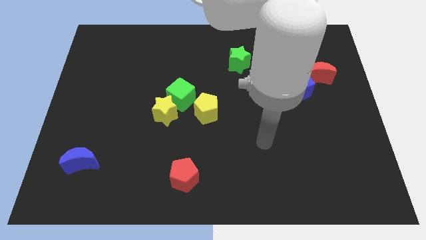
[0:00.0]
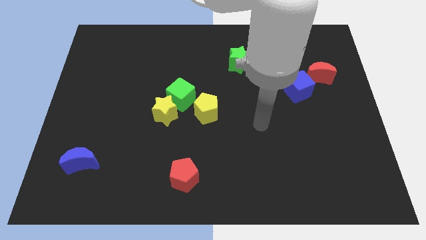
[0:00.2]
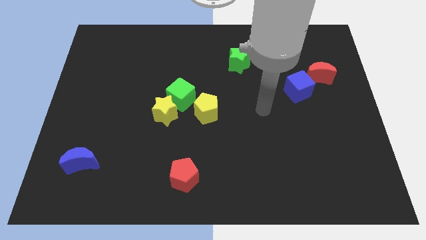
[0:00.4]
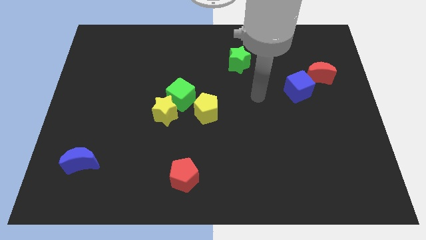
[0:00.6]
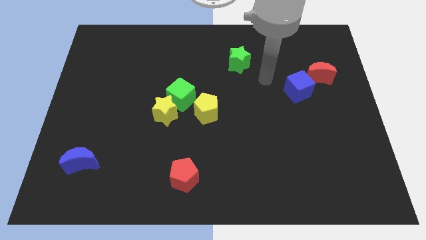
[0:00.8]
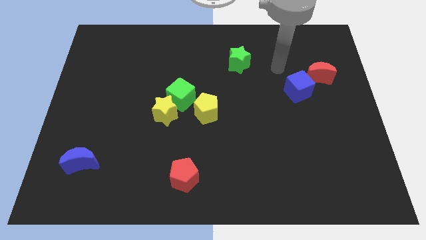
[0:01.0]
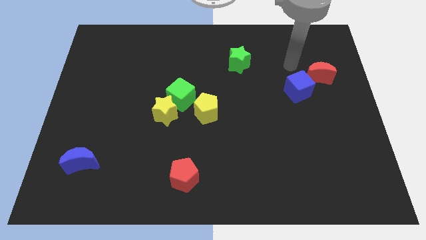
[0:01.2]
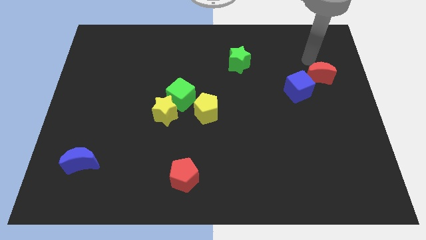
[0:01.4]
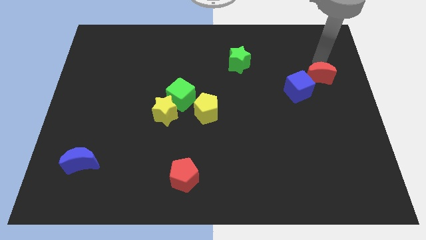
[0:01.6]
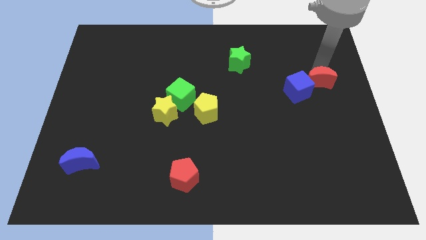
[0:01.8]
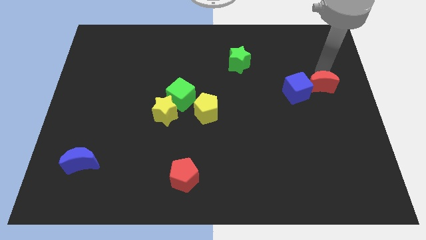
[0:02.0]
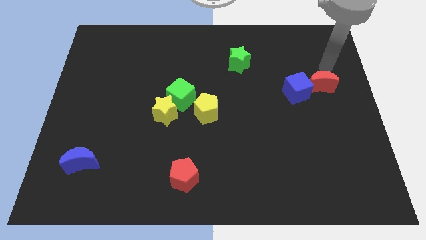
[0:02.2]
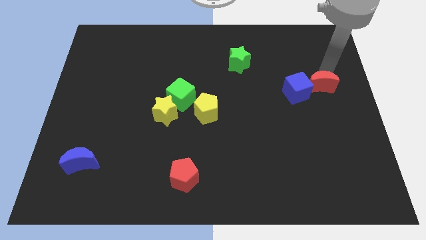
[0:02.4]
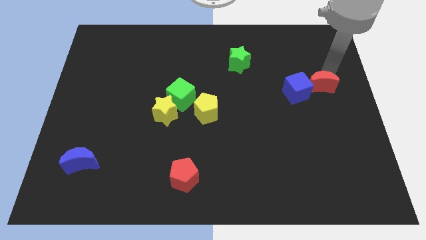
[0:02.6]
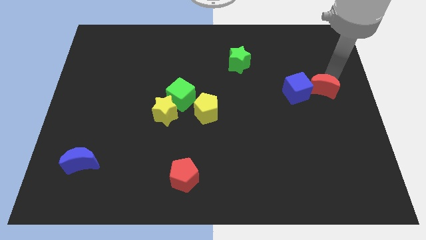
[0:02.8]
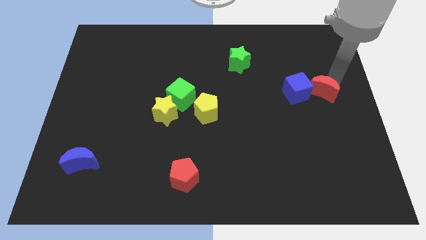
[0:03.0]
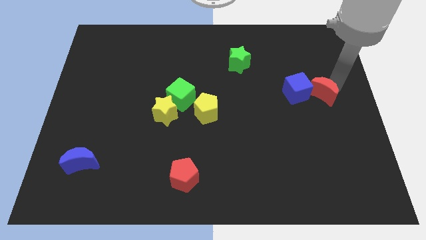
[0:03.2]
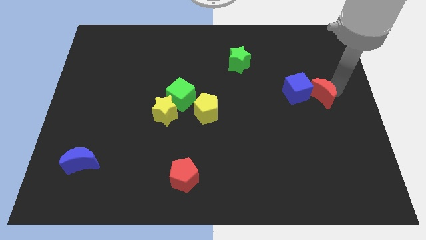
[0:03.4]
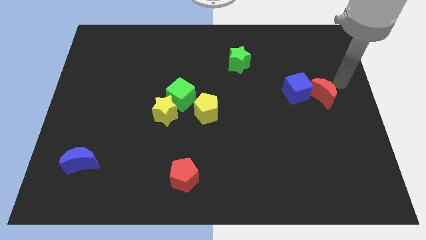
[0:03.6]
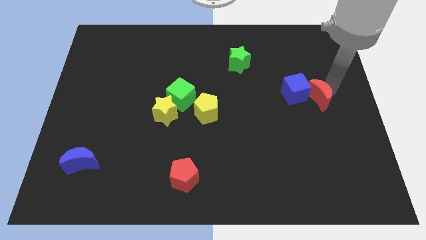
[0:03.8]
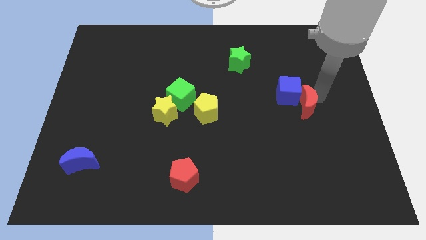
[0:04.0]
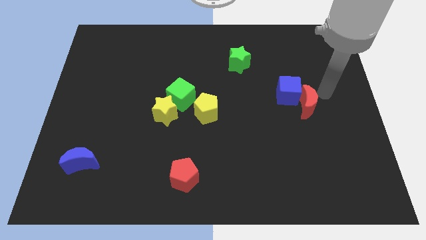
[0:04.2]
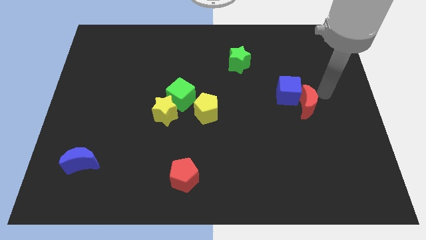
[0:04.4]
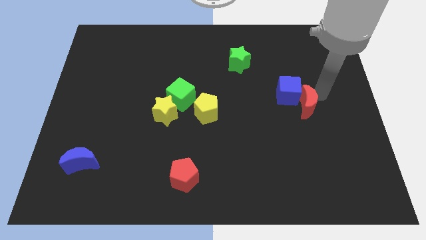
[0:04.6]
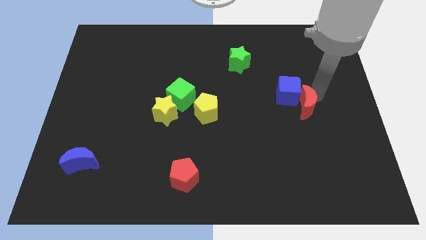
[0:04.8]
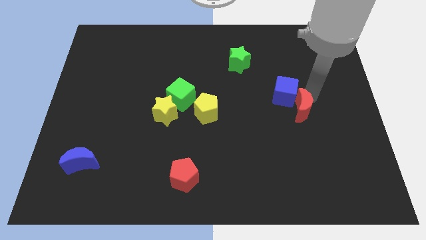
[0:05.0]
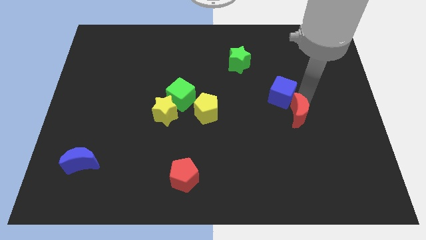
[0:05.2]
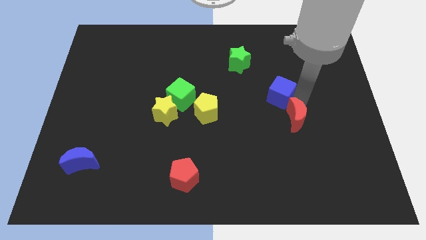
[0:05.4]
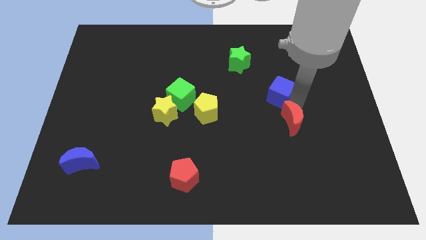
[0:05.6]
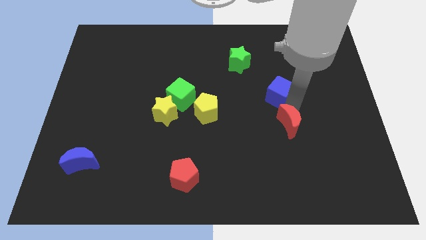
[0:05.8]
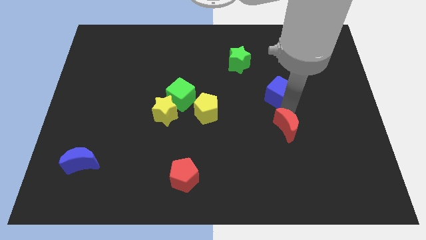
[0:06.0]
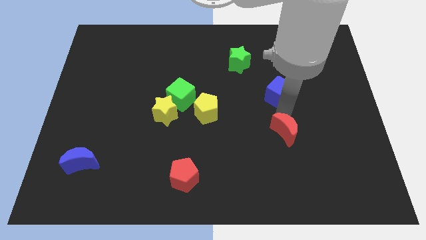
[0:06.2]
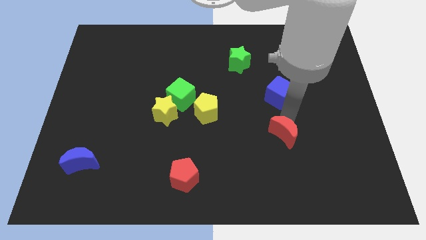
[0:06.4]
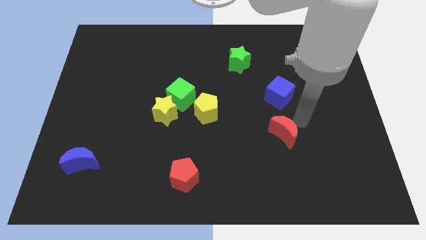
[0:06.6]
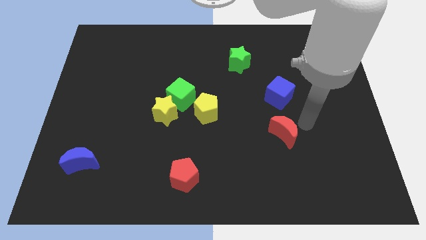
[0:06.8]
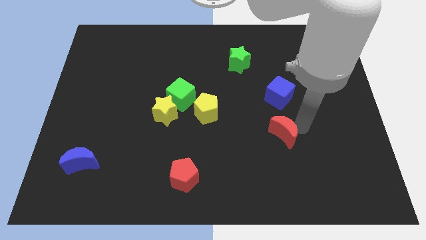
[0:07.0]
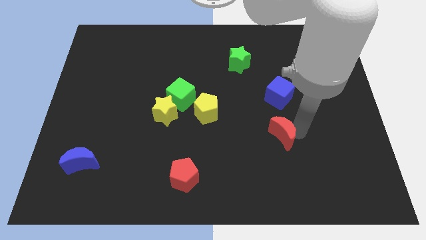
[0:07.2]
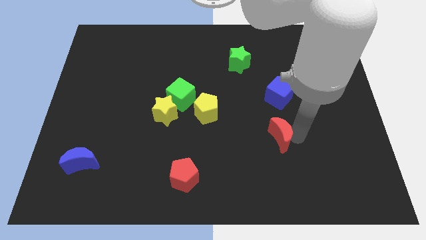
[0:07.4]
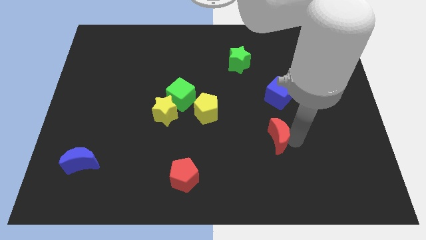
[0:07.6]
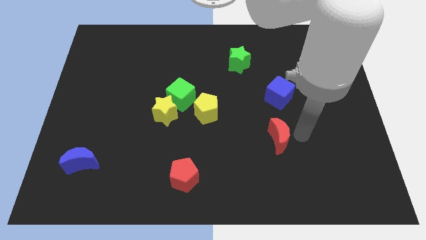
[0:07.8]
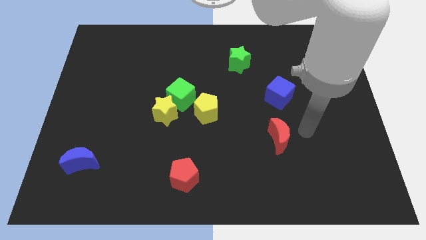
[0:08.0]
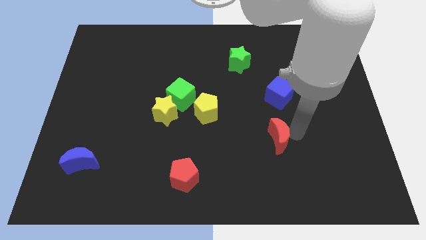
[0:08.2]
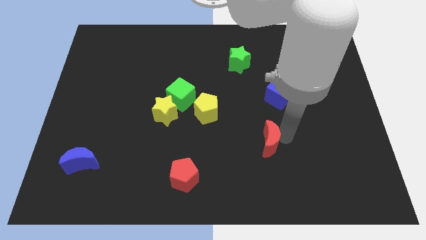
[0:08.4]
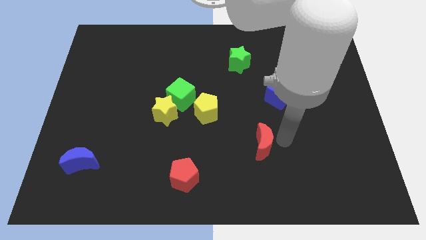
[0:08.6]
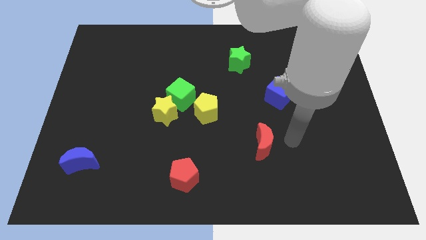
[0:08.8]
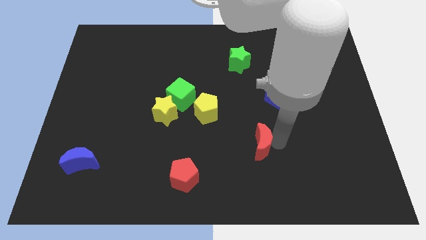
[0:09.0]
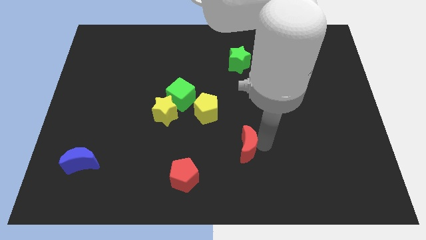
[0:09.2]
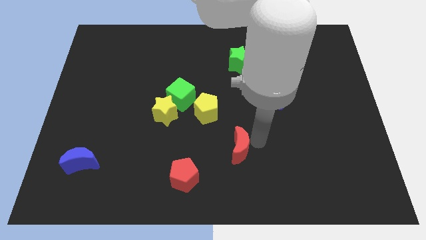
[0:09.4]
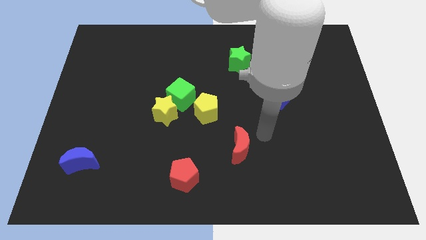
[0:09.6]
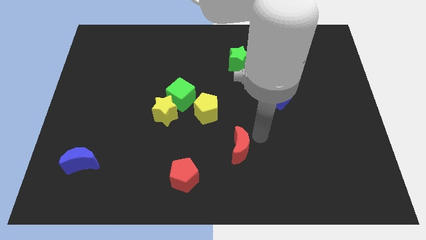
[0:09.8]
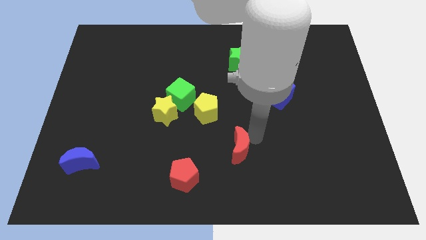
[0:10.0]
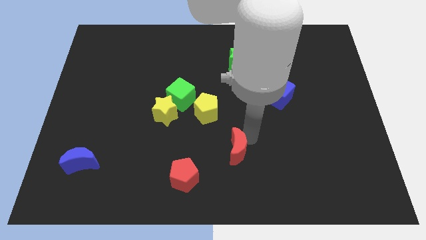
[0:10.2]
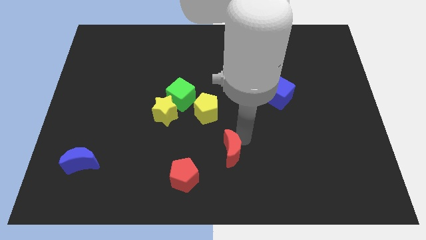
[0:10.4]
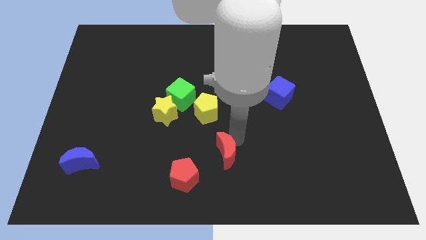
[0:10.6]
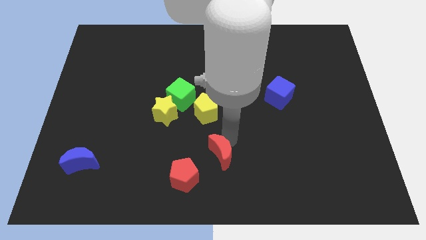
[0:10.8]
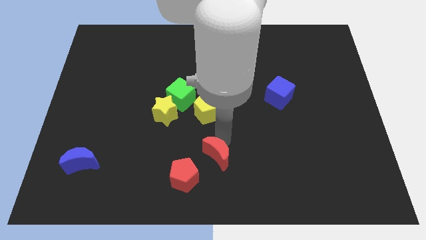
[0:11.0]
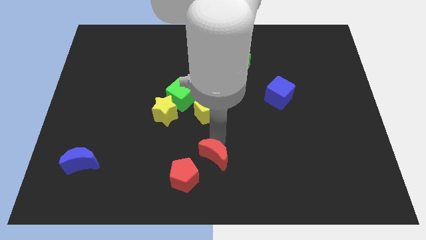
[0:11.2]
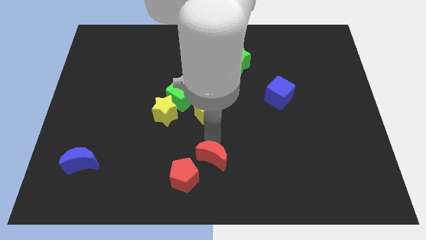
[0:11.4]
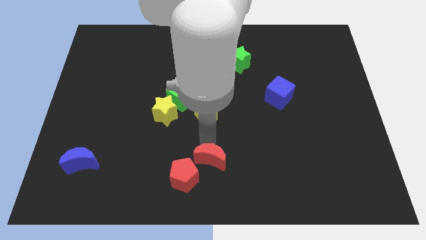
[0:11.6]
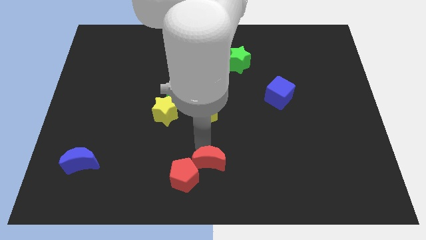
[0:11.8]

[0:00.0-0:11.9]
push the red moon close to the red pentagon

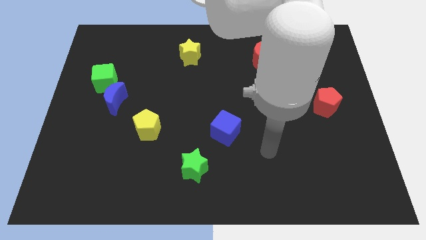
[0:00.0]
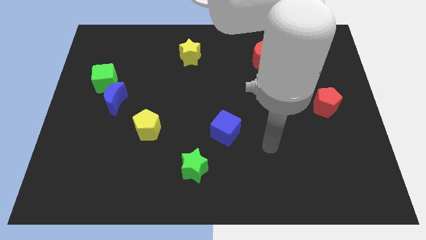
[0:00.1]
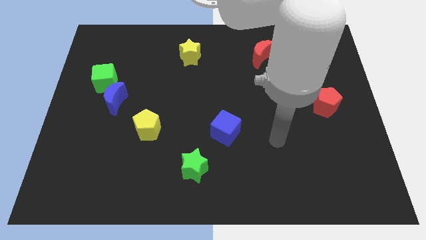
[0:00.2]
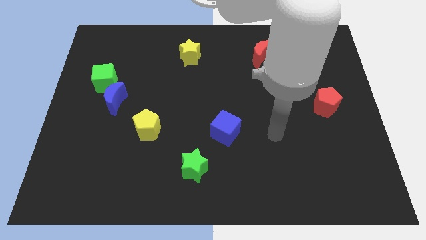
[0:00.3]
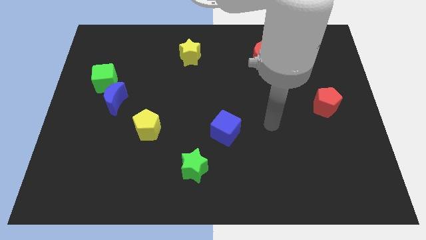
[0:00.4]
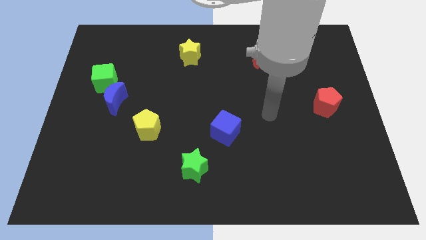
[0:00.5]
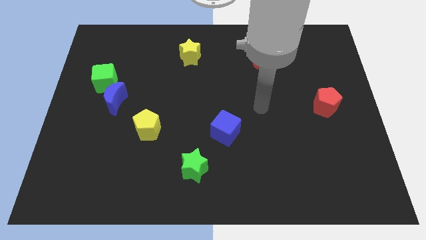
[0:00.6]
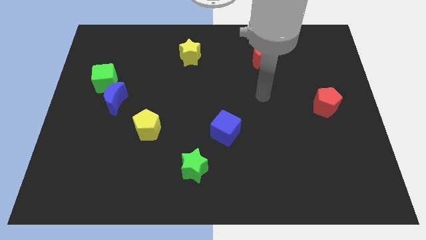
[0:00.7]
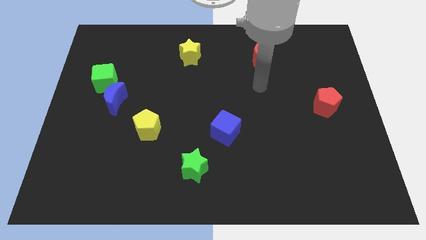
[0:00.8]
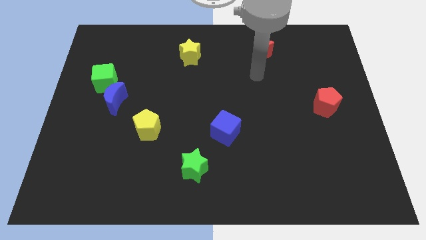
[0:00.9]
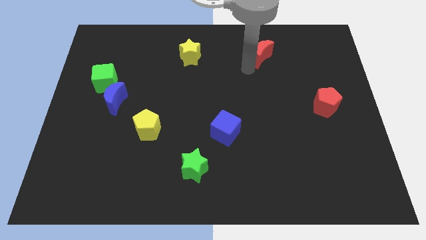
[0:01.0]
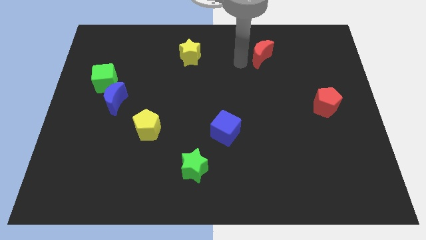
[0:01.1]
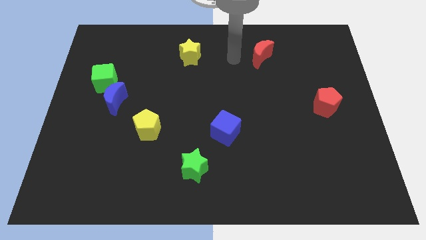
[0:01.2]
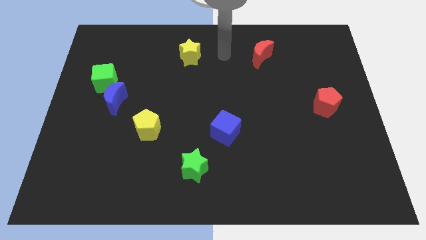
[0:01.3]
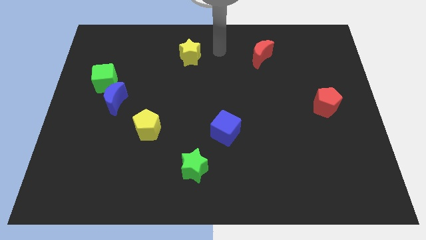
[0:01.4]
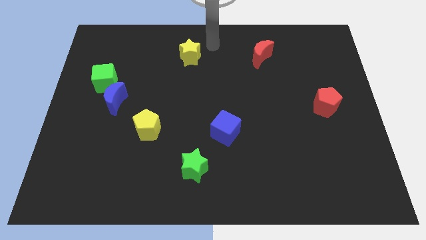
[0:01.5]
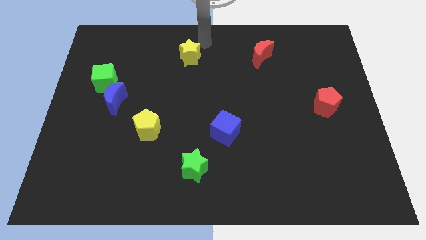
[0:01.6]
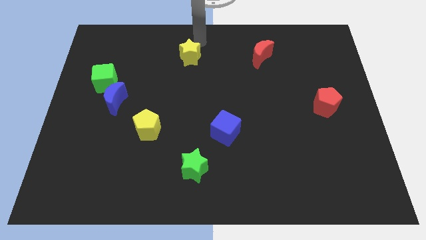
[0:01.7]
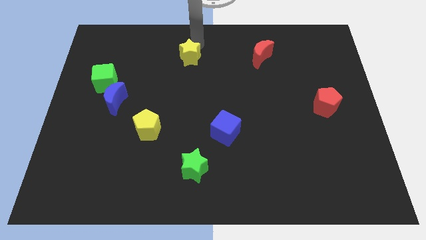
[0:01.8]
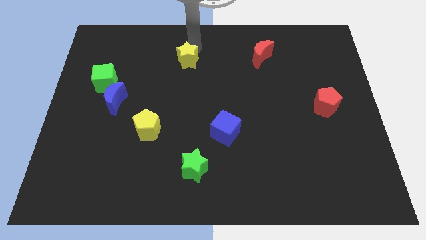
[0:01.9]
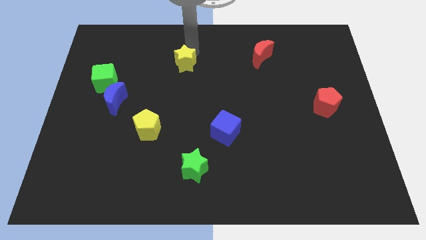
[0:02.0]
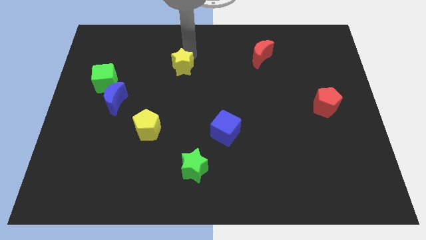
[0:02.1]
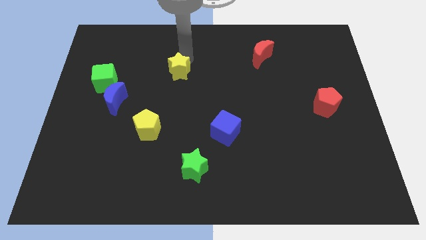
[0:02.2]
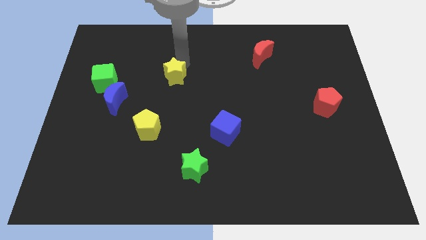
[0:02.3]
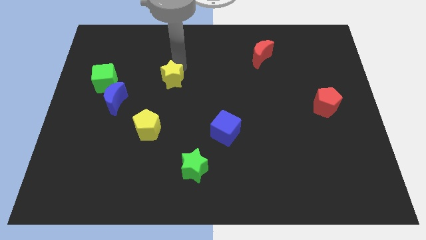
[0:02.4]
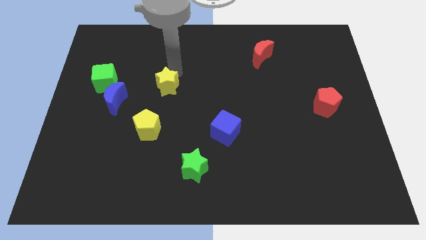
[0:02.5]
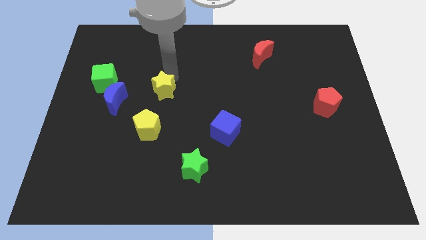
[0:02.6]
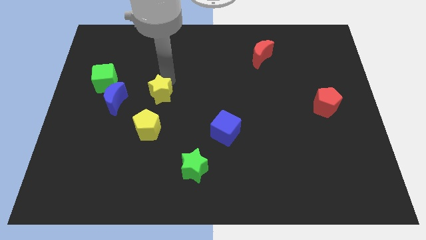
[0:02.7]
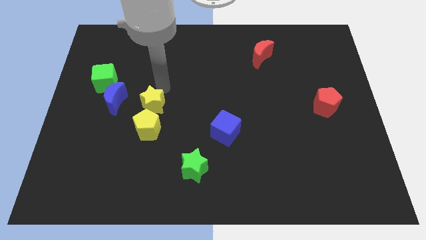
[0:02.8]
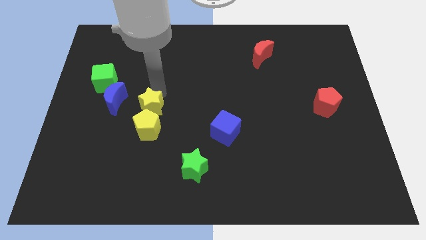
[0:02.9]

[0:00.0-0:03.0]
push the yellow star next to the yellow pentagon
